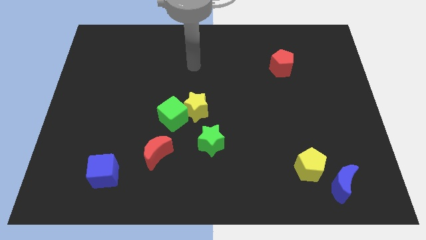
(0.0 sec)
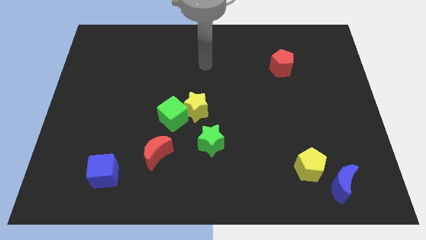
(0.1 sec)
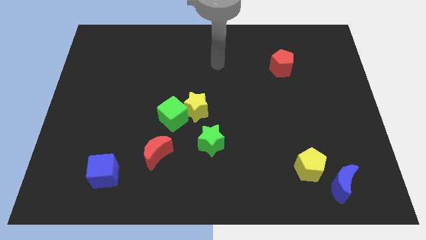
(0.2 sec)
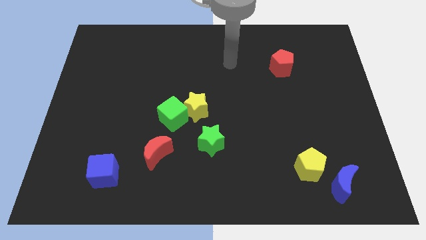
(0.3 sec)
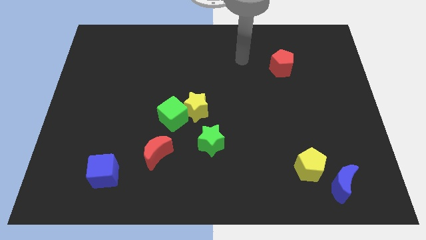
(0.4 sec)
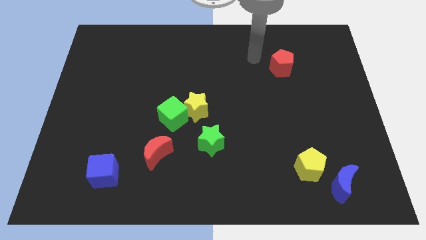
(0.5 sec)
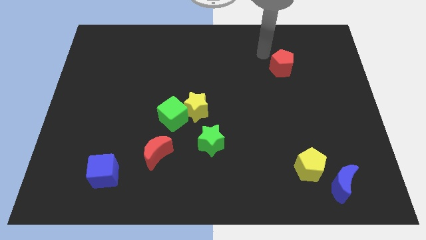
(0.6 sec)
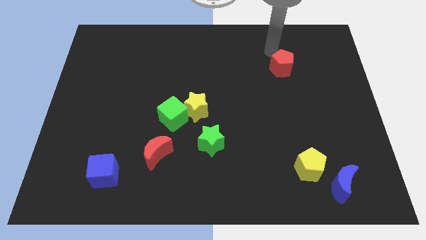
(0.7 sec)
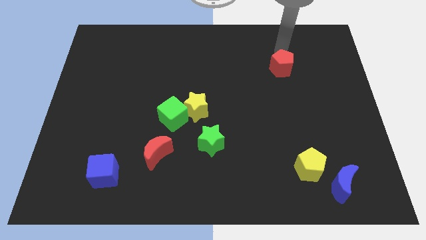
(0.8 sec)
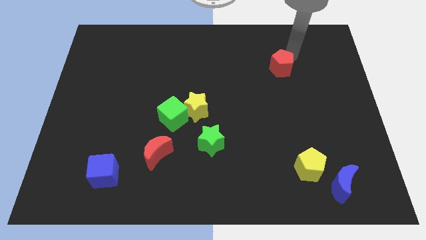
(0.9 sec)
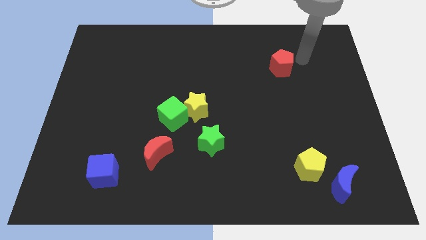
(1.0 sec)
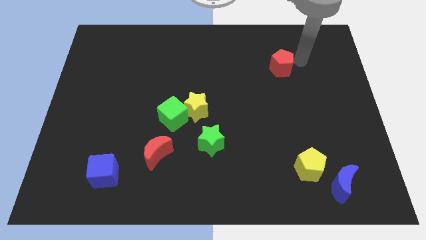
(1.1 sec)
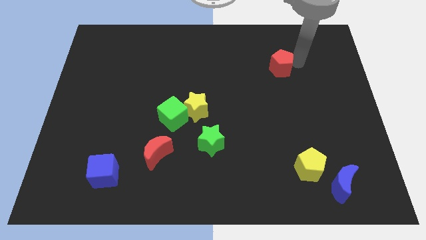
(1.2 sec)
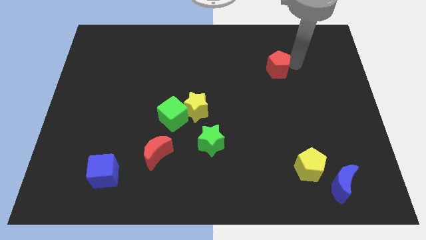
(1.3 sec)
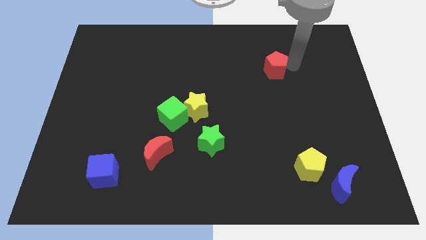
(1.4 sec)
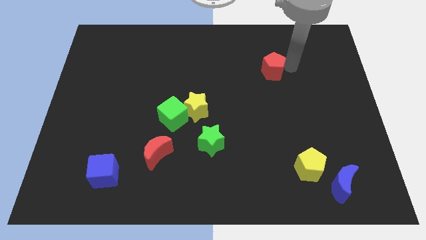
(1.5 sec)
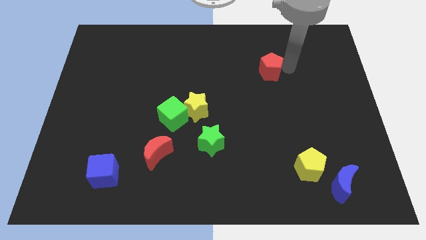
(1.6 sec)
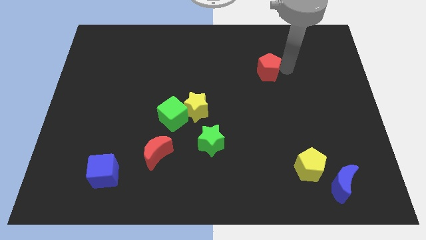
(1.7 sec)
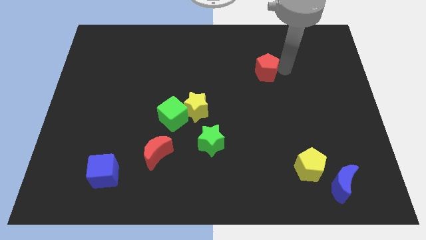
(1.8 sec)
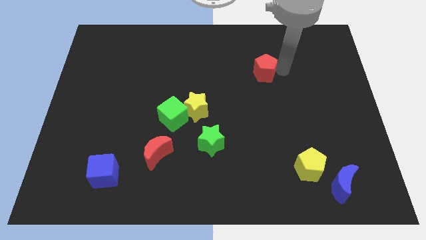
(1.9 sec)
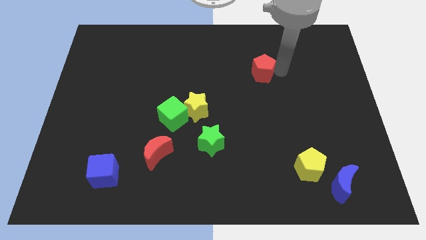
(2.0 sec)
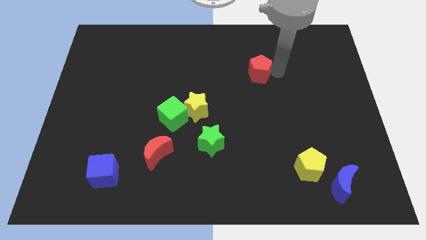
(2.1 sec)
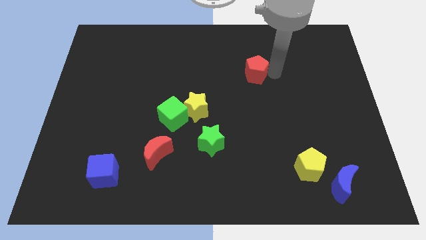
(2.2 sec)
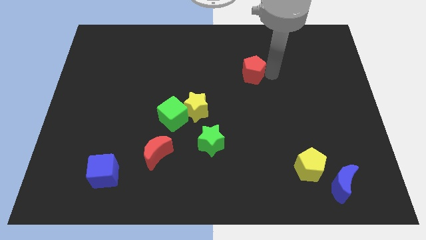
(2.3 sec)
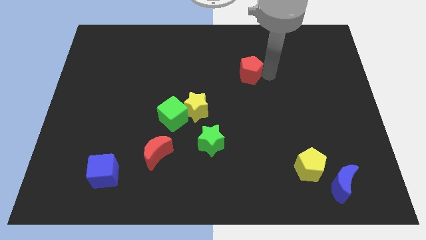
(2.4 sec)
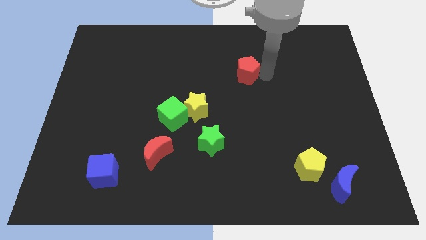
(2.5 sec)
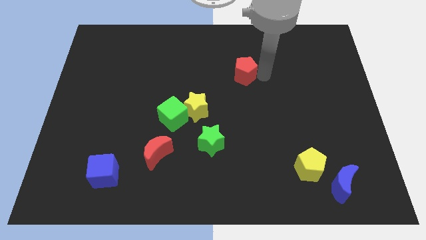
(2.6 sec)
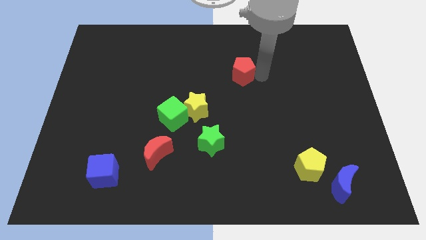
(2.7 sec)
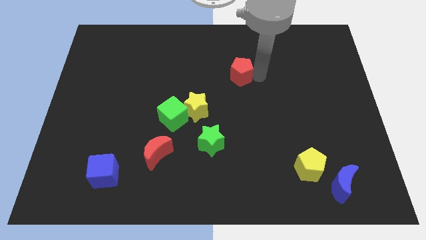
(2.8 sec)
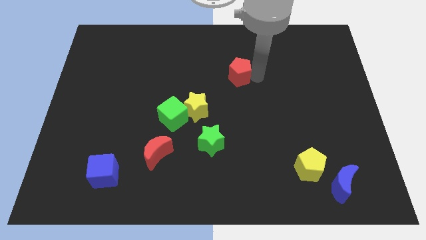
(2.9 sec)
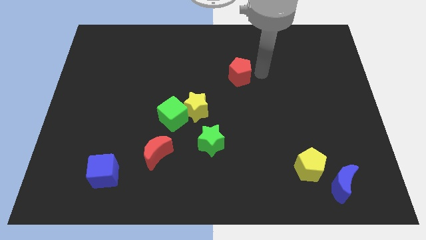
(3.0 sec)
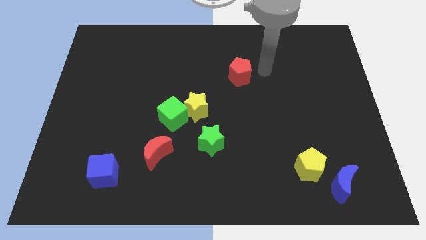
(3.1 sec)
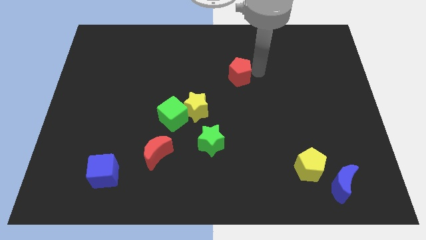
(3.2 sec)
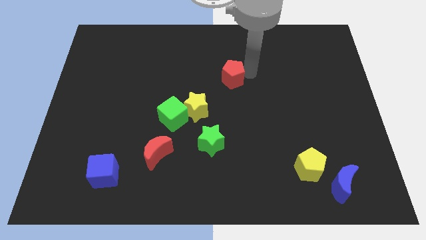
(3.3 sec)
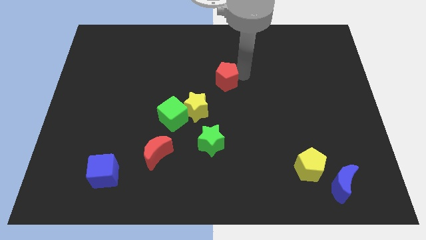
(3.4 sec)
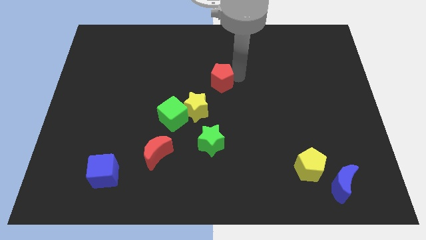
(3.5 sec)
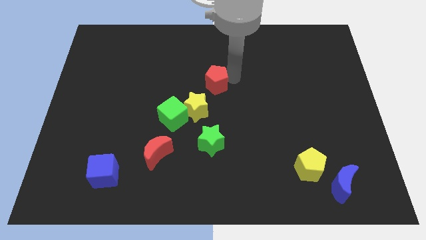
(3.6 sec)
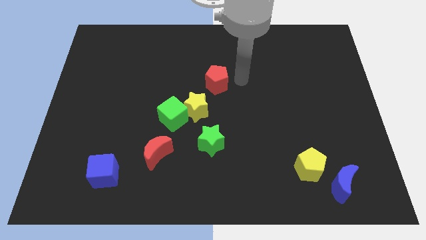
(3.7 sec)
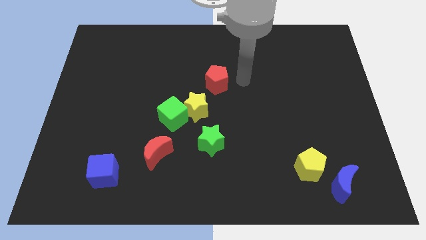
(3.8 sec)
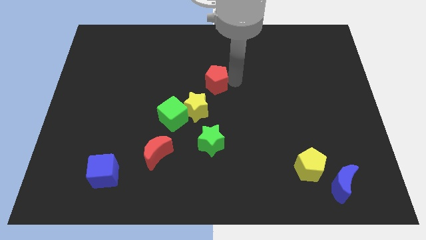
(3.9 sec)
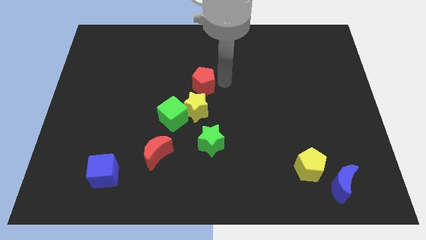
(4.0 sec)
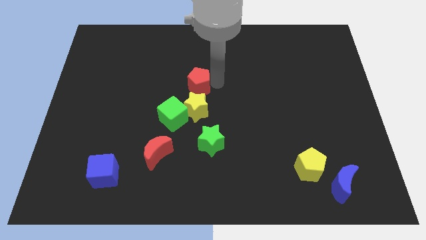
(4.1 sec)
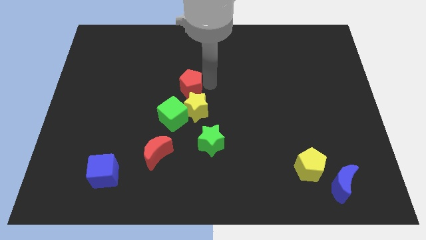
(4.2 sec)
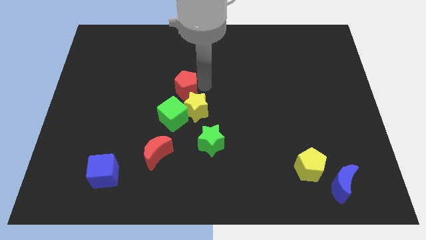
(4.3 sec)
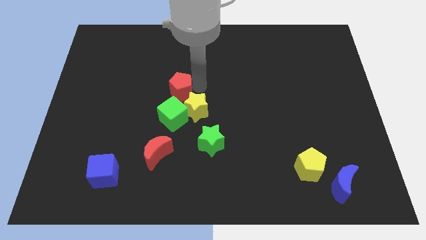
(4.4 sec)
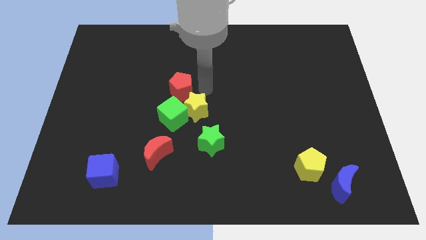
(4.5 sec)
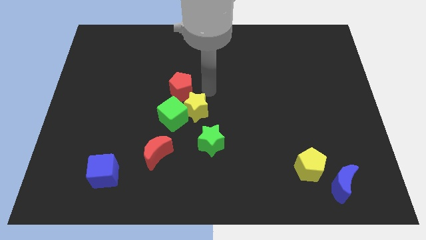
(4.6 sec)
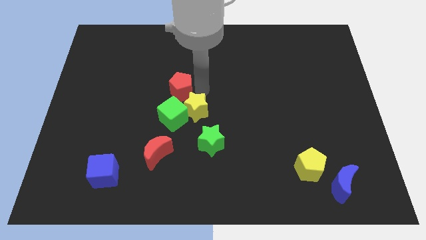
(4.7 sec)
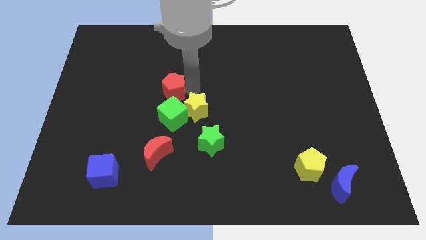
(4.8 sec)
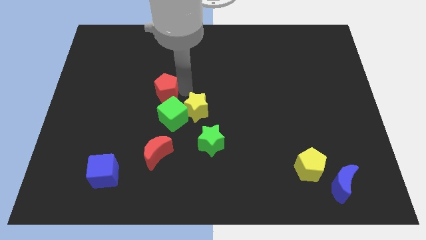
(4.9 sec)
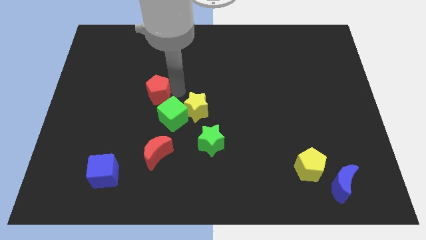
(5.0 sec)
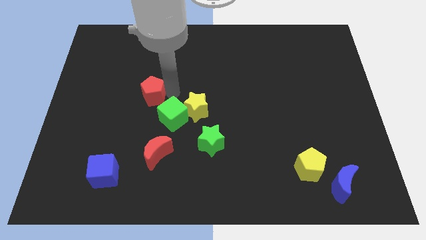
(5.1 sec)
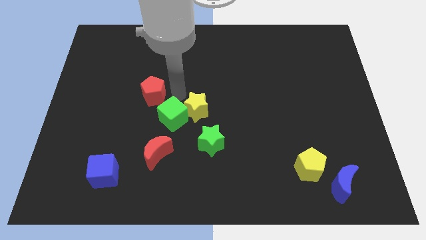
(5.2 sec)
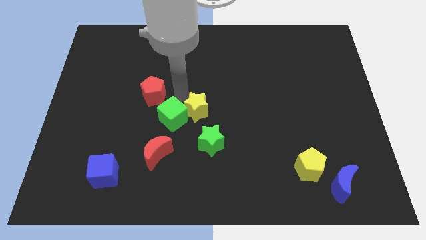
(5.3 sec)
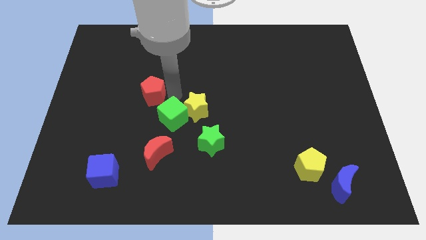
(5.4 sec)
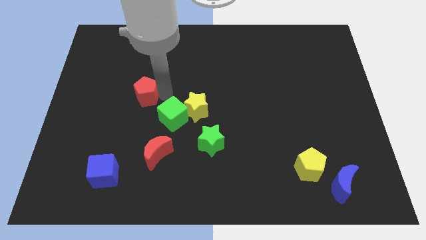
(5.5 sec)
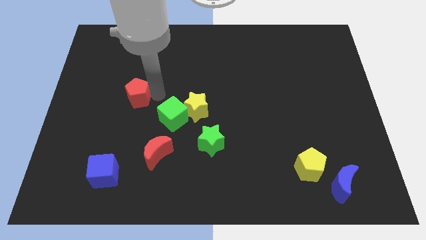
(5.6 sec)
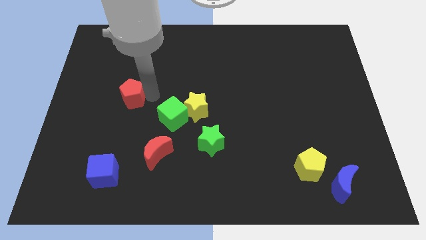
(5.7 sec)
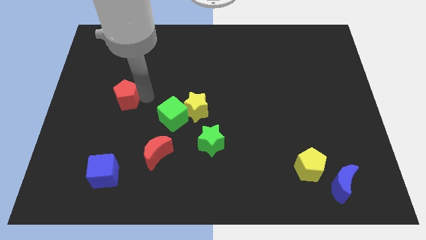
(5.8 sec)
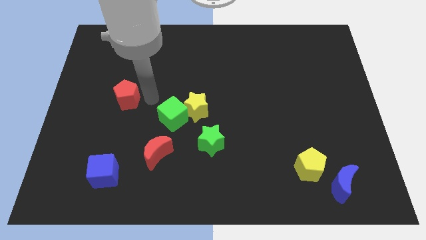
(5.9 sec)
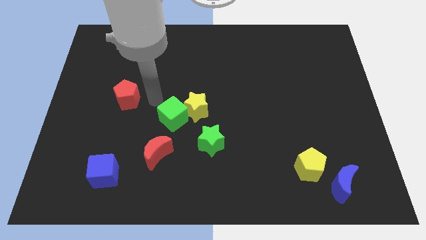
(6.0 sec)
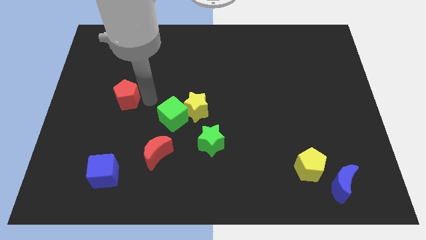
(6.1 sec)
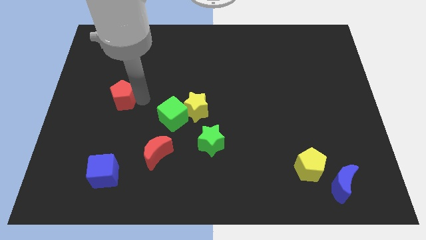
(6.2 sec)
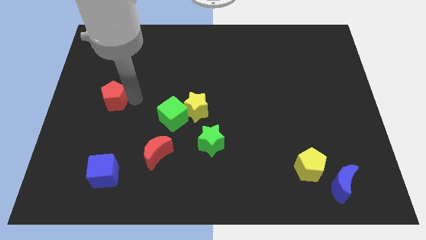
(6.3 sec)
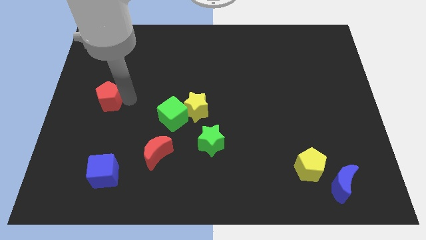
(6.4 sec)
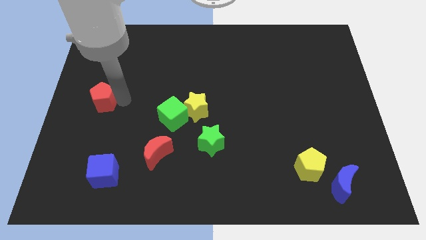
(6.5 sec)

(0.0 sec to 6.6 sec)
slide the red pentagon to the center left

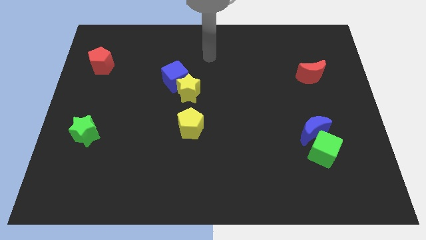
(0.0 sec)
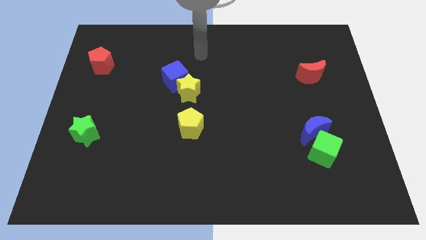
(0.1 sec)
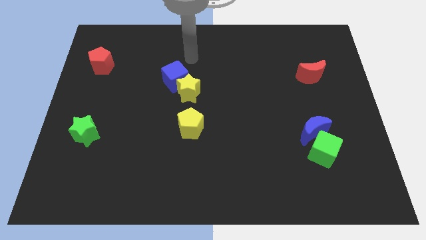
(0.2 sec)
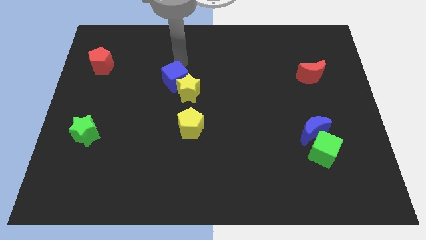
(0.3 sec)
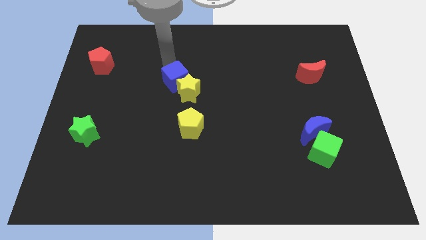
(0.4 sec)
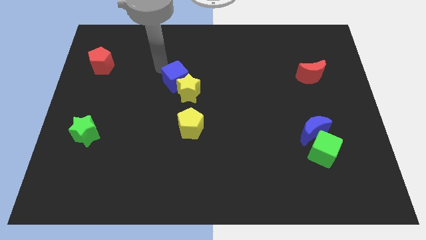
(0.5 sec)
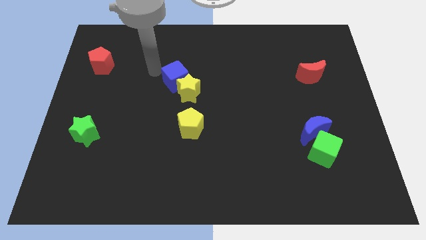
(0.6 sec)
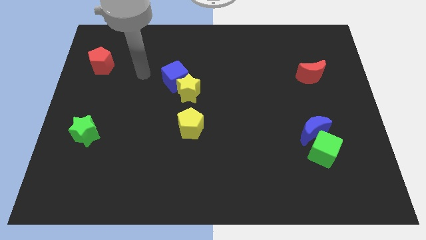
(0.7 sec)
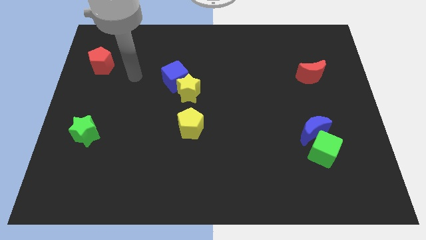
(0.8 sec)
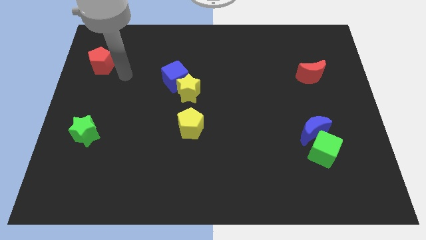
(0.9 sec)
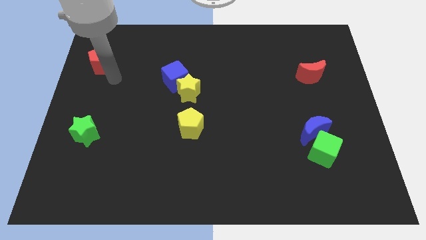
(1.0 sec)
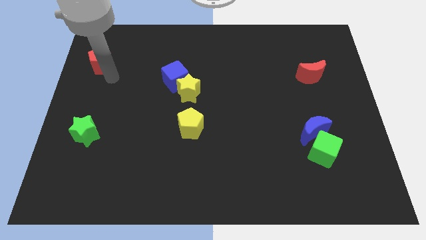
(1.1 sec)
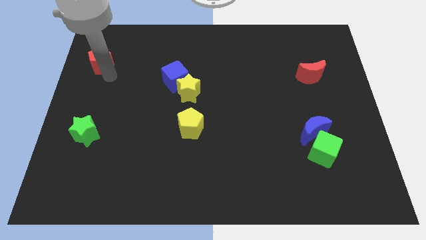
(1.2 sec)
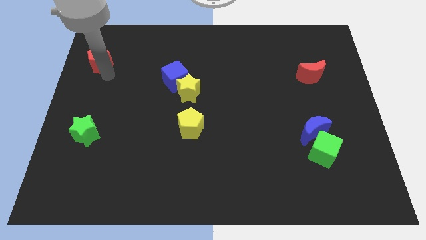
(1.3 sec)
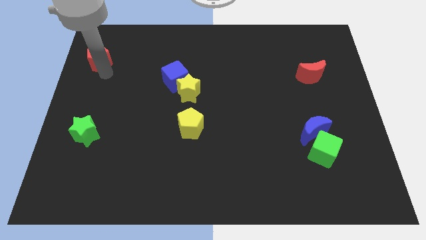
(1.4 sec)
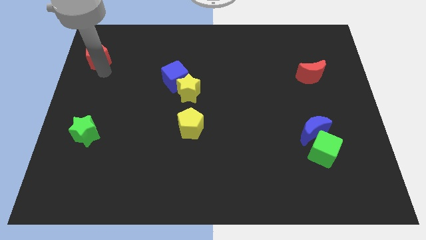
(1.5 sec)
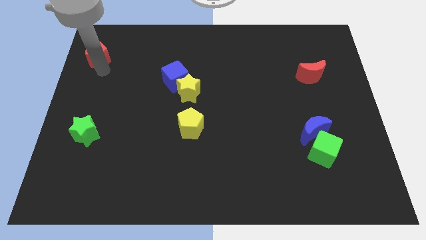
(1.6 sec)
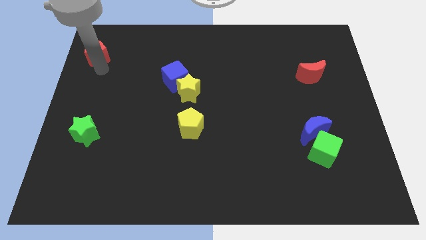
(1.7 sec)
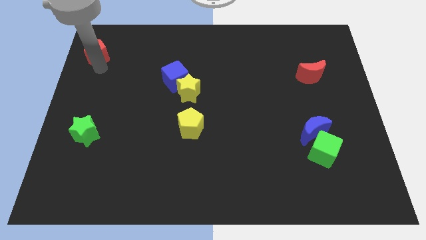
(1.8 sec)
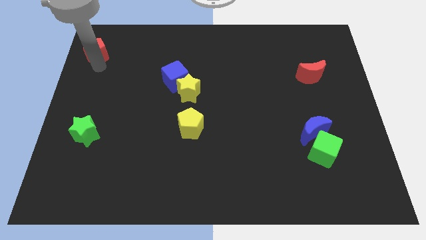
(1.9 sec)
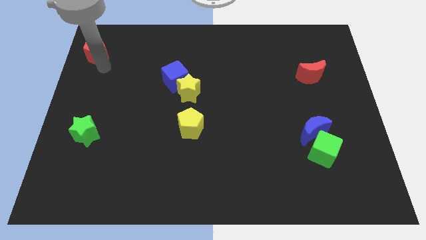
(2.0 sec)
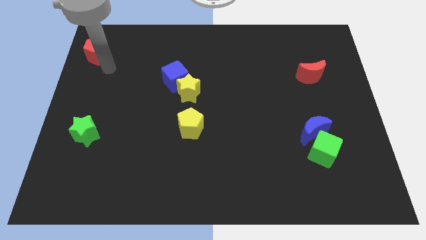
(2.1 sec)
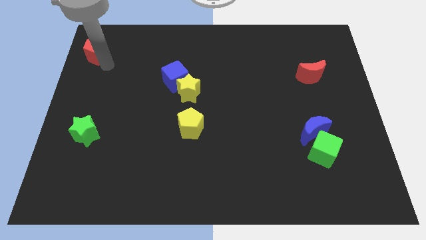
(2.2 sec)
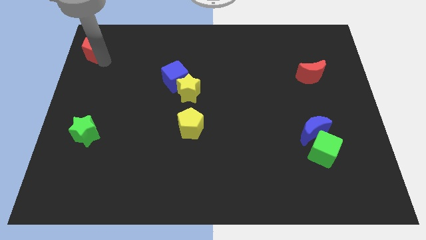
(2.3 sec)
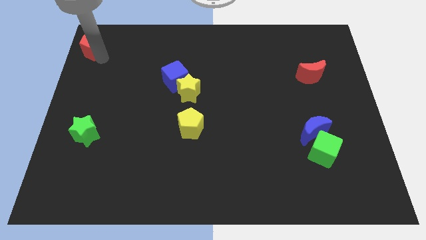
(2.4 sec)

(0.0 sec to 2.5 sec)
move the red pentagon to the top left of the board
